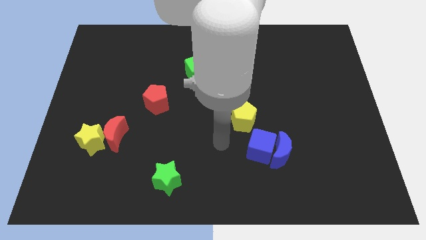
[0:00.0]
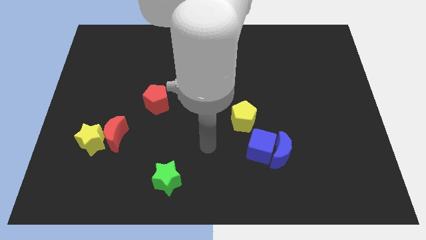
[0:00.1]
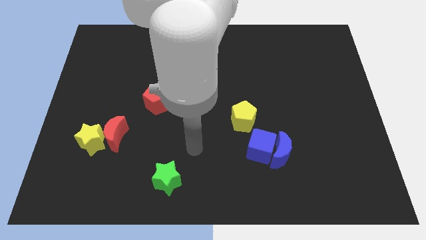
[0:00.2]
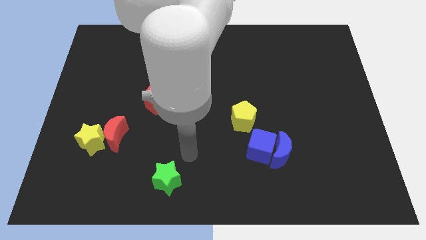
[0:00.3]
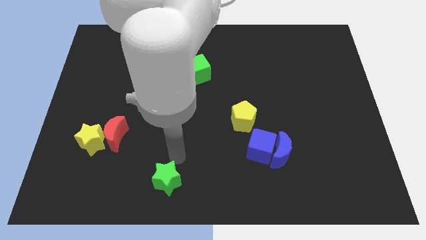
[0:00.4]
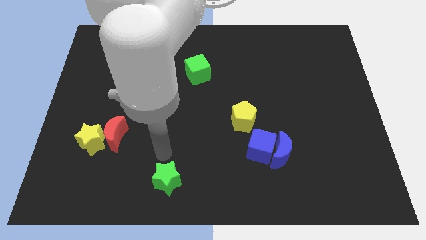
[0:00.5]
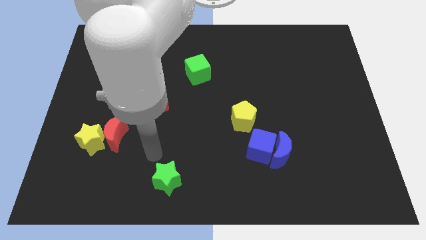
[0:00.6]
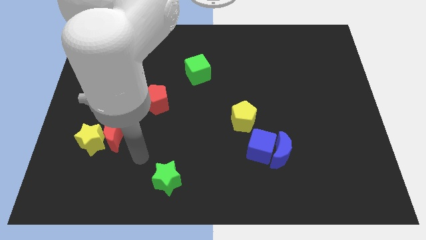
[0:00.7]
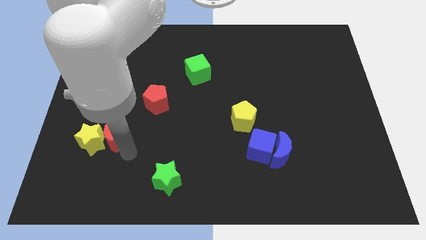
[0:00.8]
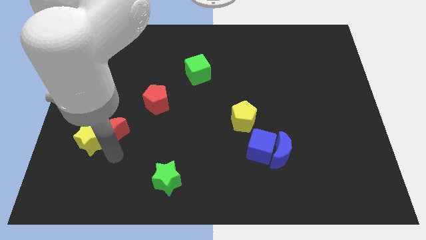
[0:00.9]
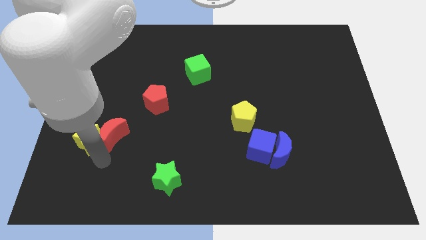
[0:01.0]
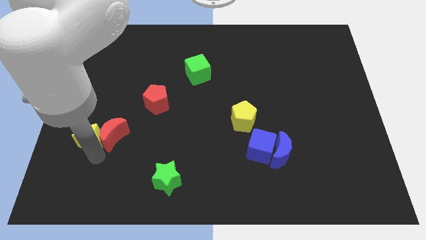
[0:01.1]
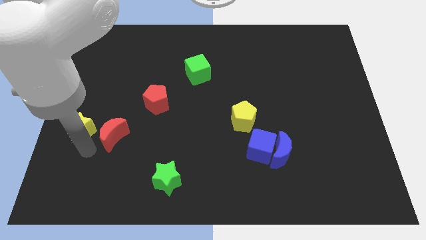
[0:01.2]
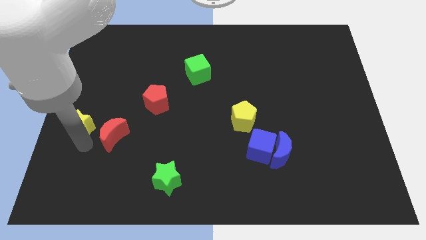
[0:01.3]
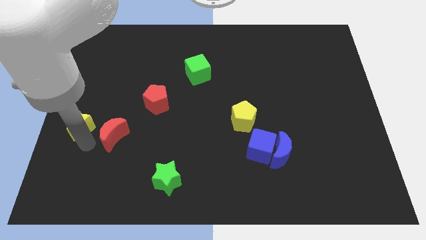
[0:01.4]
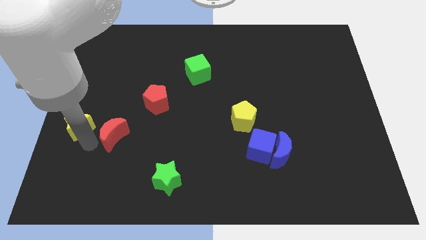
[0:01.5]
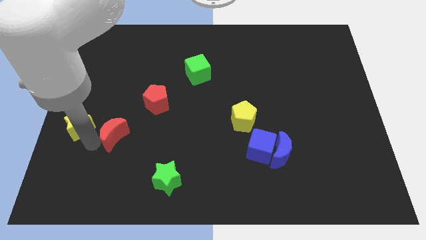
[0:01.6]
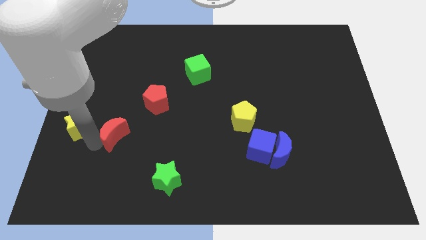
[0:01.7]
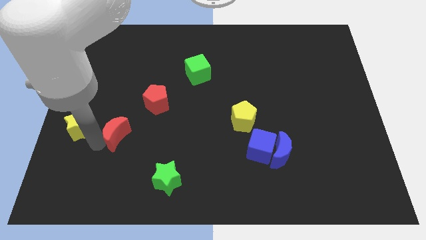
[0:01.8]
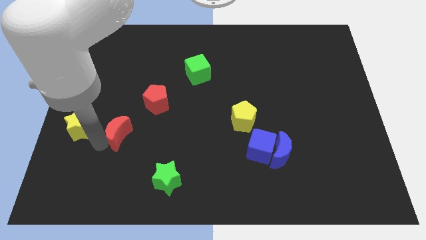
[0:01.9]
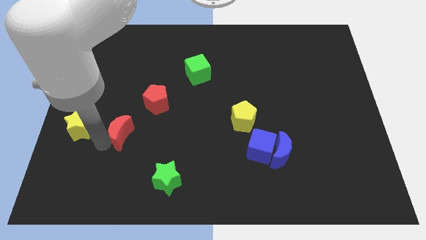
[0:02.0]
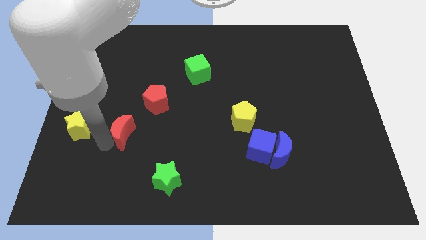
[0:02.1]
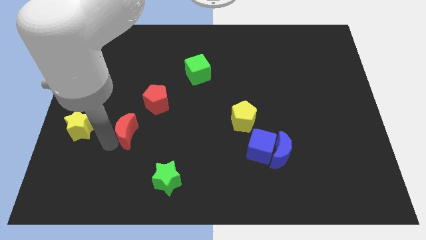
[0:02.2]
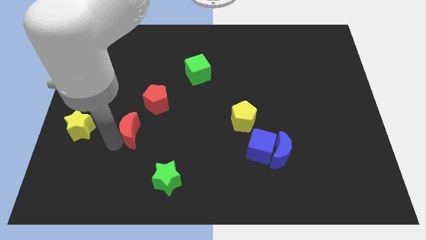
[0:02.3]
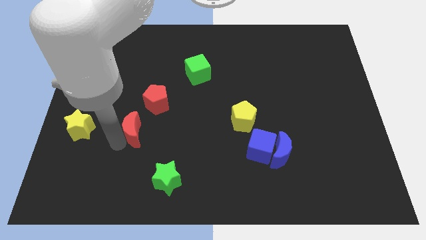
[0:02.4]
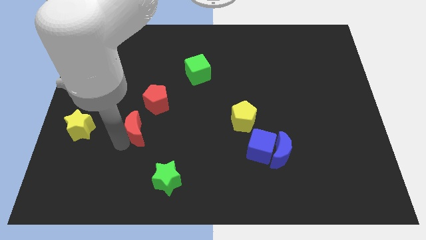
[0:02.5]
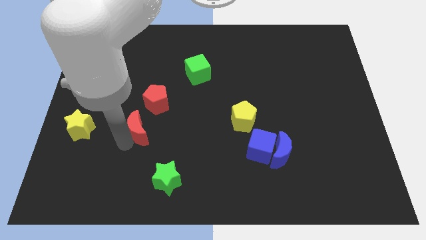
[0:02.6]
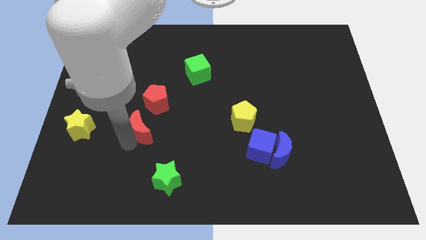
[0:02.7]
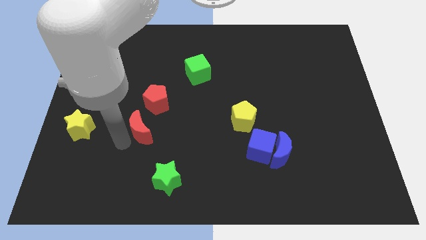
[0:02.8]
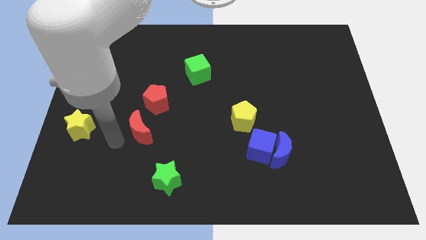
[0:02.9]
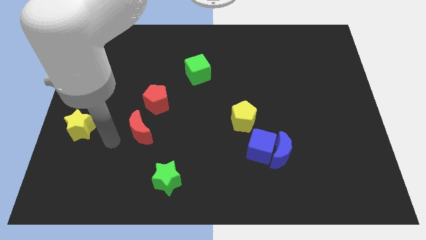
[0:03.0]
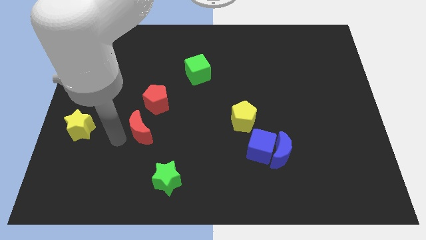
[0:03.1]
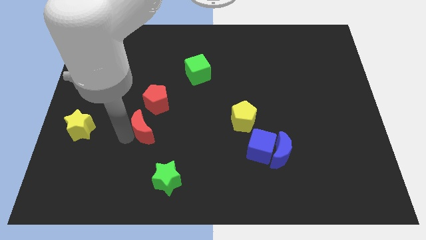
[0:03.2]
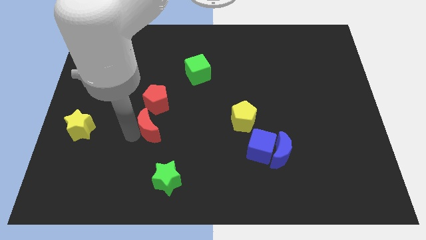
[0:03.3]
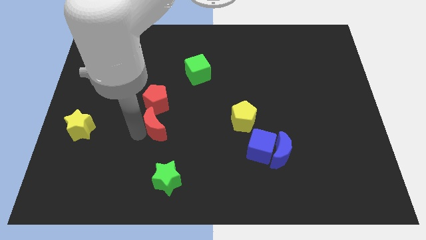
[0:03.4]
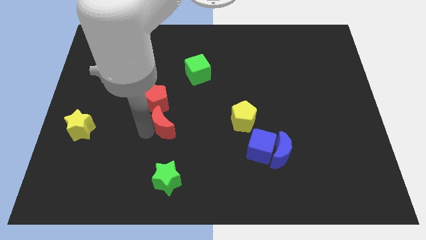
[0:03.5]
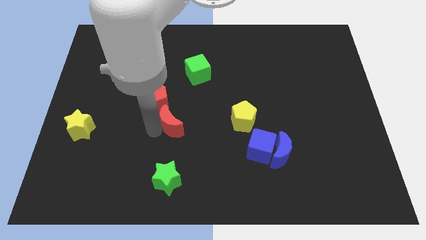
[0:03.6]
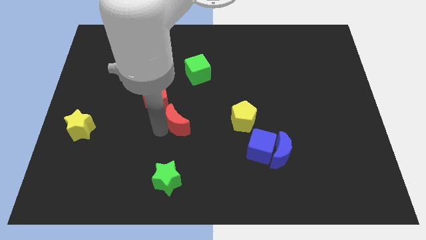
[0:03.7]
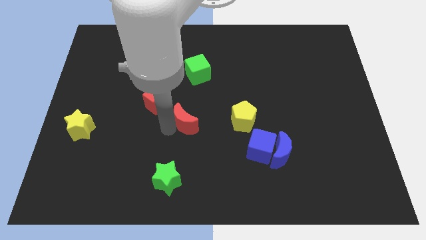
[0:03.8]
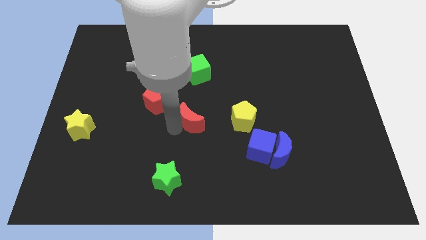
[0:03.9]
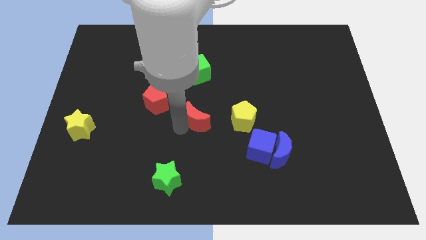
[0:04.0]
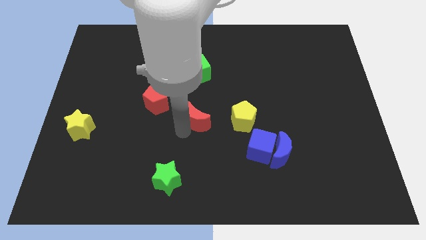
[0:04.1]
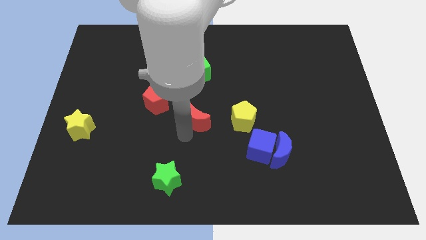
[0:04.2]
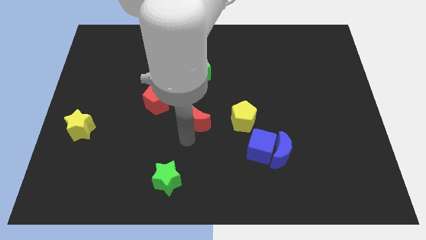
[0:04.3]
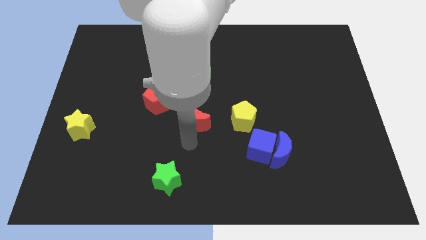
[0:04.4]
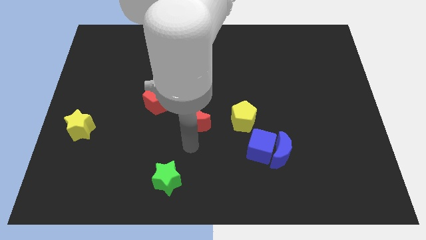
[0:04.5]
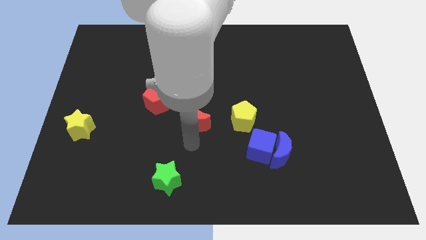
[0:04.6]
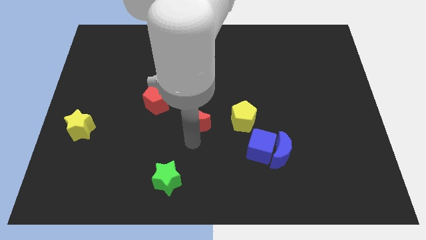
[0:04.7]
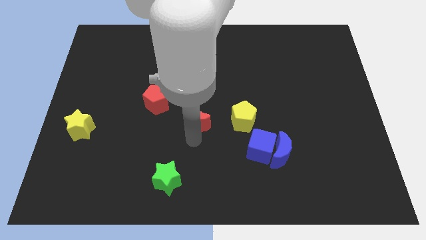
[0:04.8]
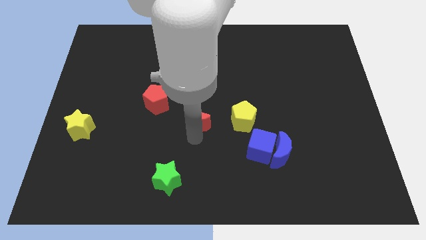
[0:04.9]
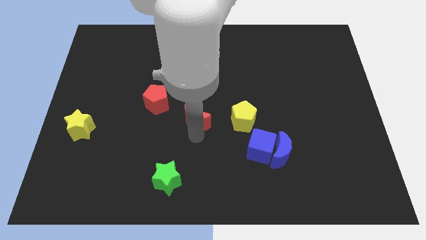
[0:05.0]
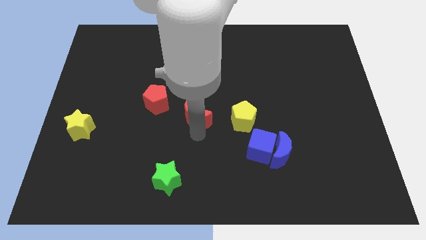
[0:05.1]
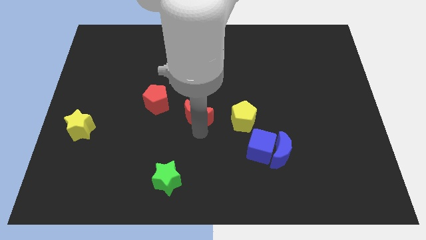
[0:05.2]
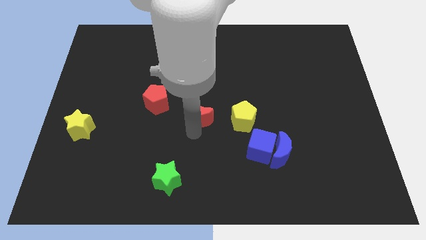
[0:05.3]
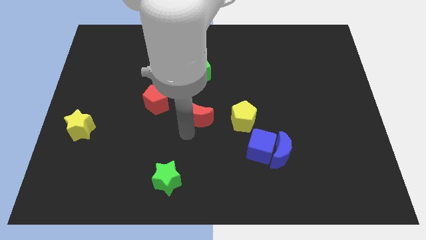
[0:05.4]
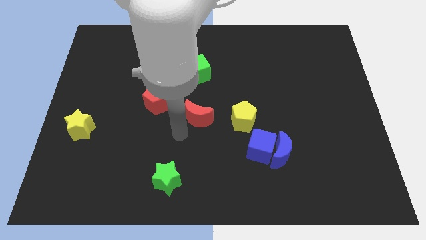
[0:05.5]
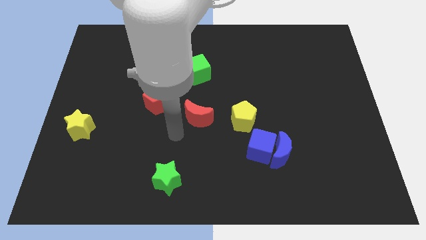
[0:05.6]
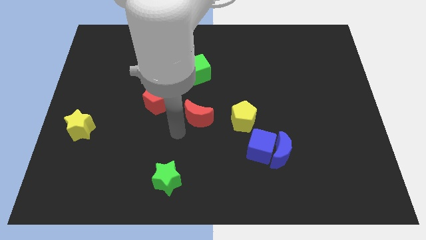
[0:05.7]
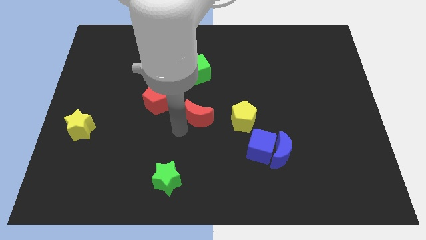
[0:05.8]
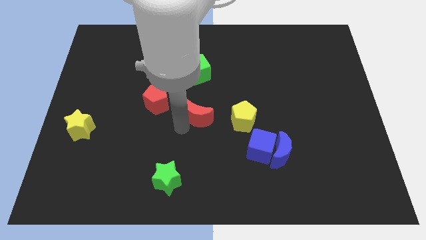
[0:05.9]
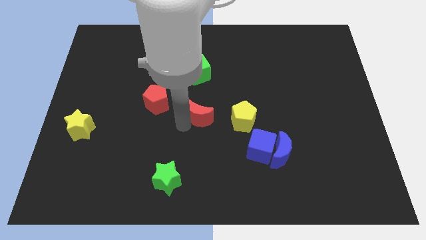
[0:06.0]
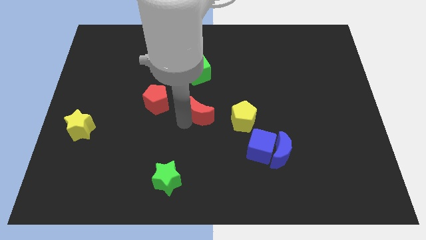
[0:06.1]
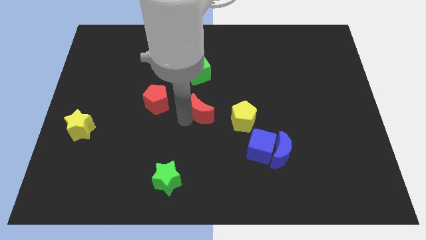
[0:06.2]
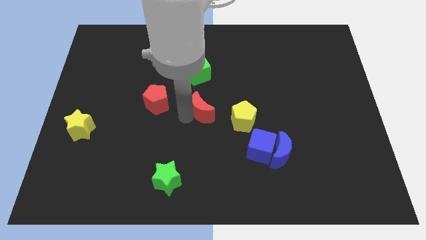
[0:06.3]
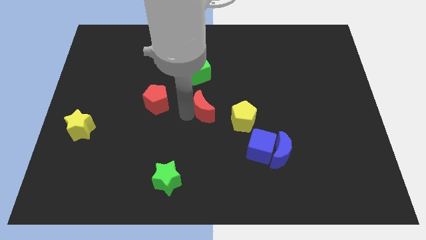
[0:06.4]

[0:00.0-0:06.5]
push the red moon to the top left side of the yellow pentagon

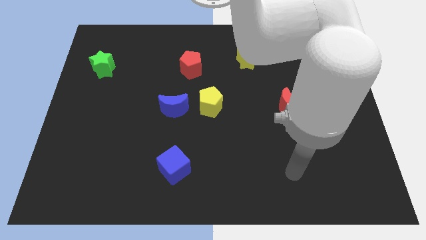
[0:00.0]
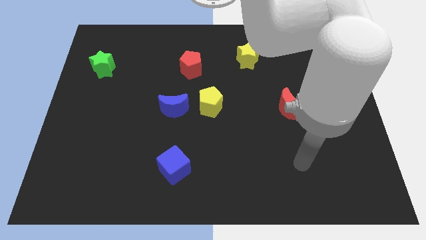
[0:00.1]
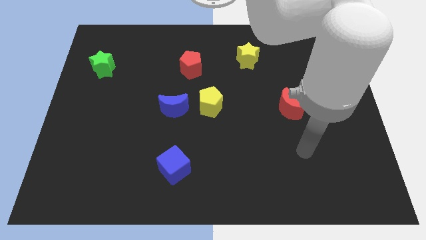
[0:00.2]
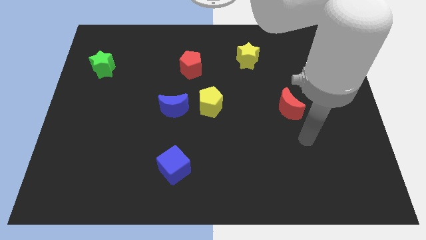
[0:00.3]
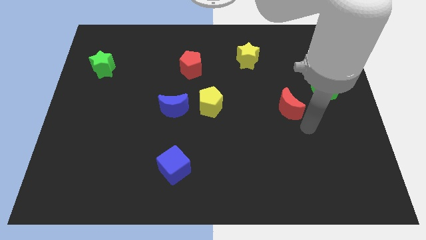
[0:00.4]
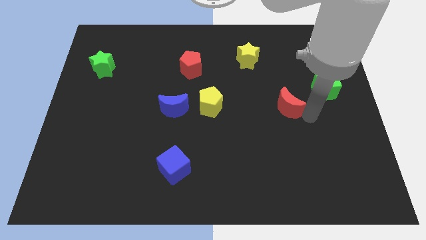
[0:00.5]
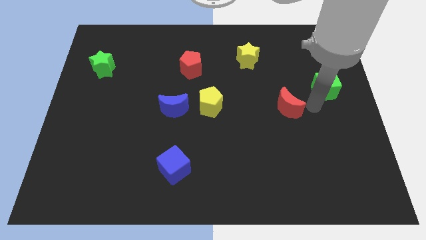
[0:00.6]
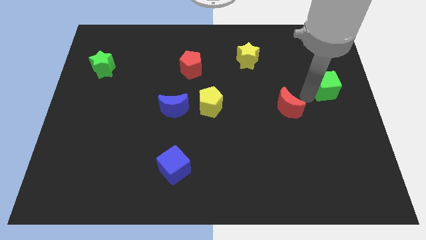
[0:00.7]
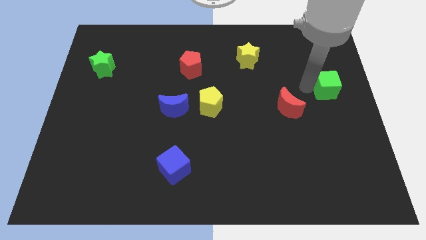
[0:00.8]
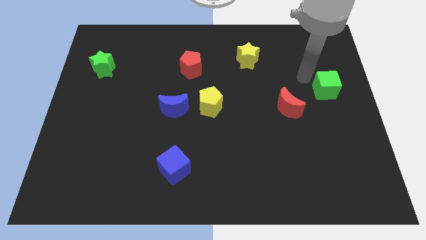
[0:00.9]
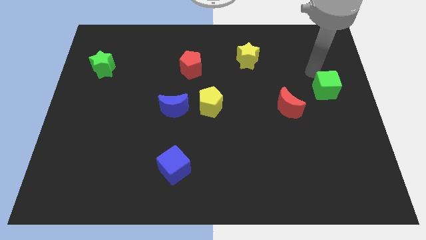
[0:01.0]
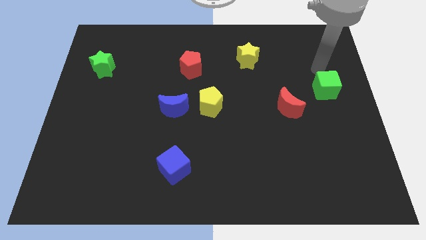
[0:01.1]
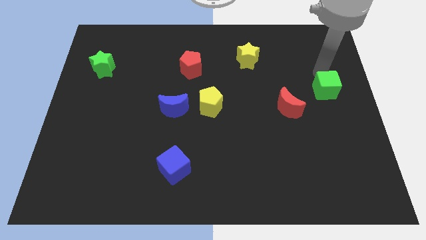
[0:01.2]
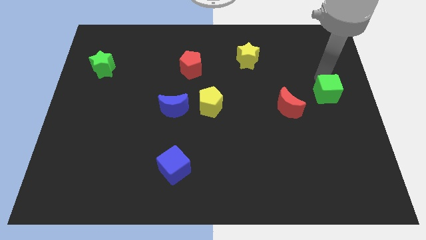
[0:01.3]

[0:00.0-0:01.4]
push the green cube to the right of the red moon
